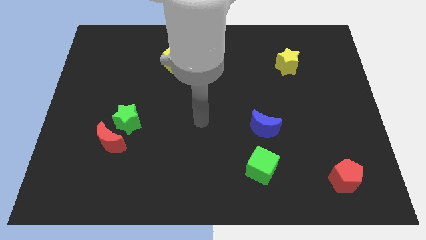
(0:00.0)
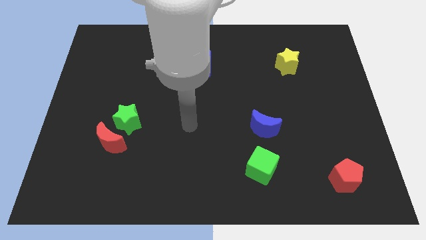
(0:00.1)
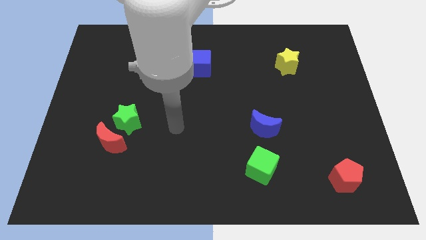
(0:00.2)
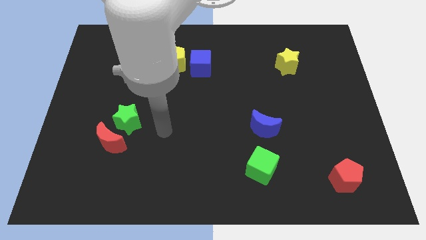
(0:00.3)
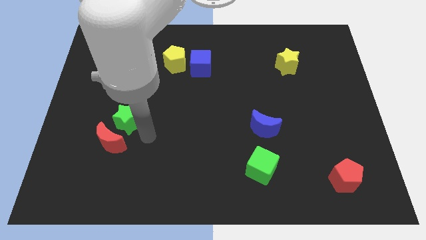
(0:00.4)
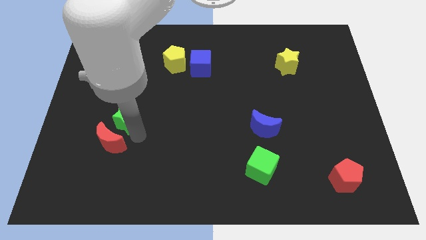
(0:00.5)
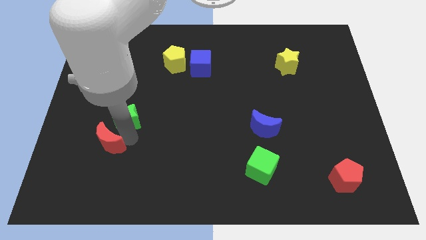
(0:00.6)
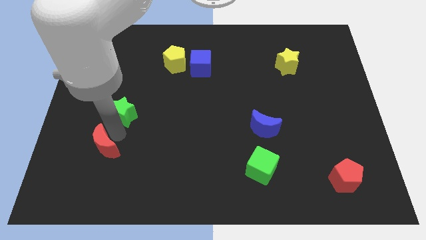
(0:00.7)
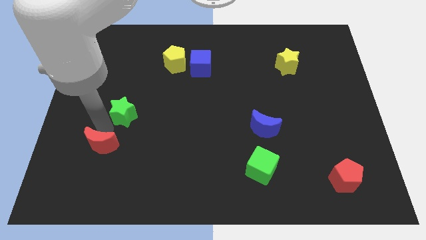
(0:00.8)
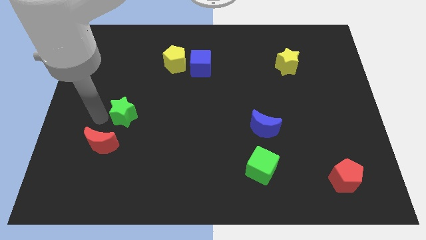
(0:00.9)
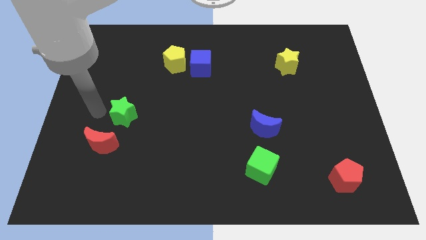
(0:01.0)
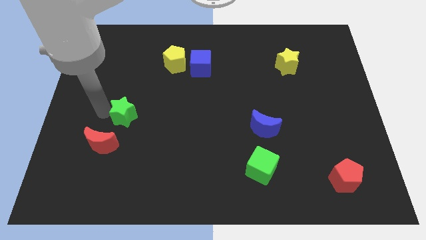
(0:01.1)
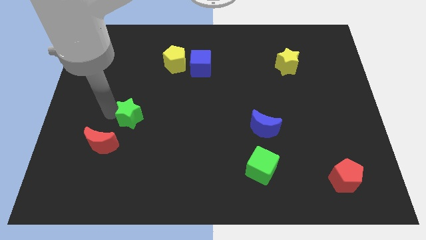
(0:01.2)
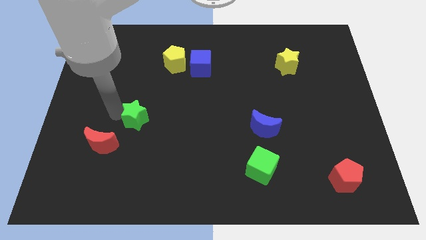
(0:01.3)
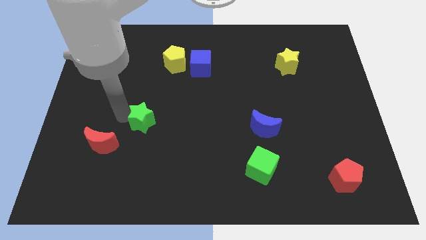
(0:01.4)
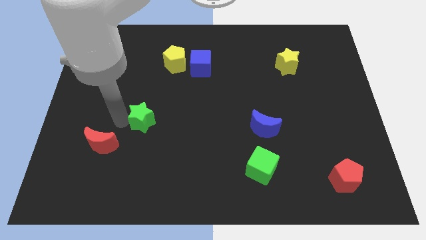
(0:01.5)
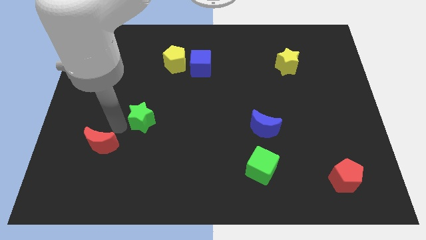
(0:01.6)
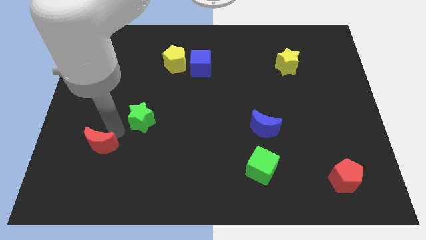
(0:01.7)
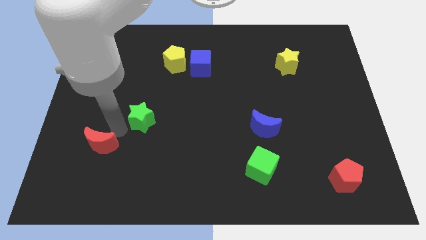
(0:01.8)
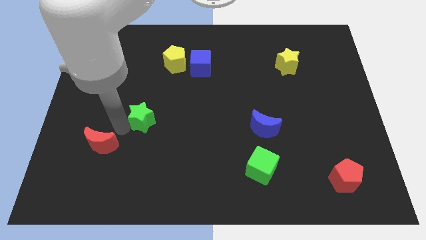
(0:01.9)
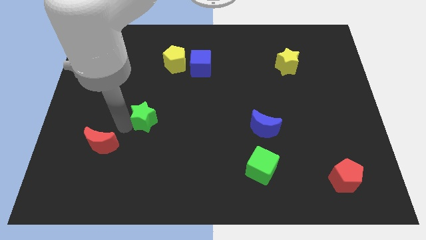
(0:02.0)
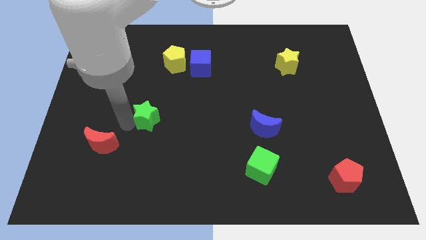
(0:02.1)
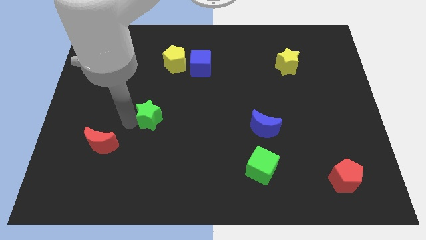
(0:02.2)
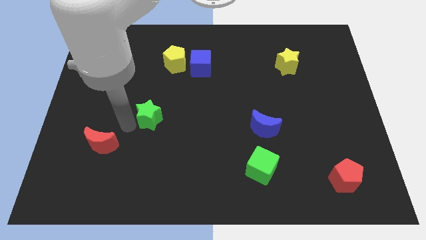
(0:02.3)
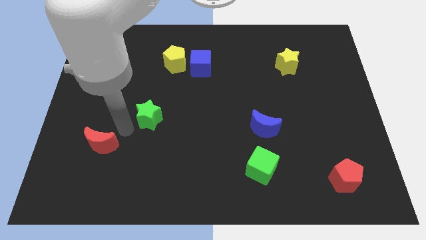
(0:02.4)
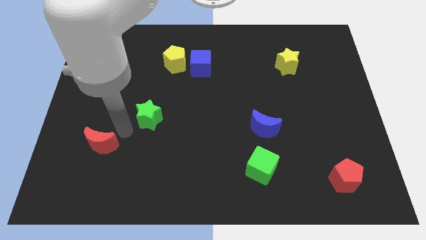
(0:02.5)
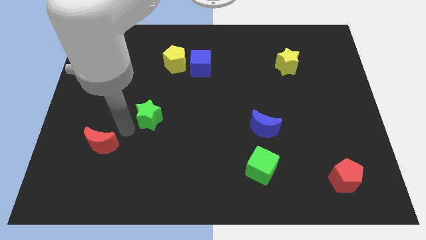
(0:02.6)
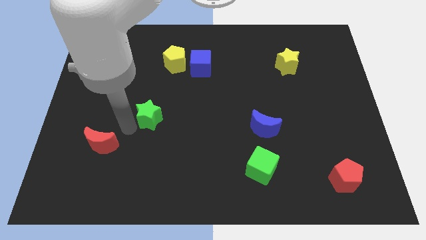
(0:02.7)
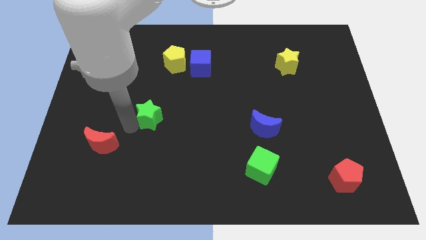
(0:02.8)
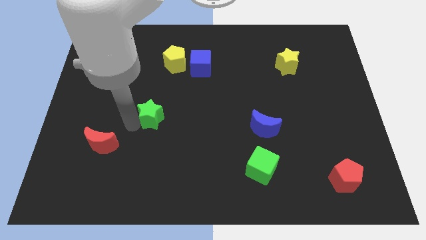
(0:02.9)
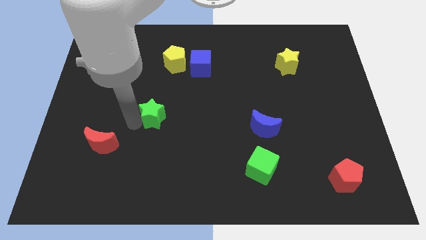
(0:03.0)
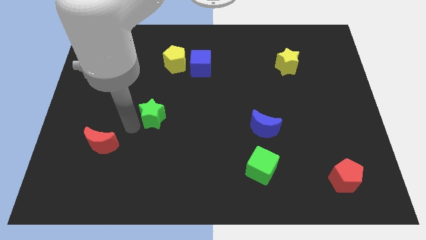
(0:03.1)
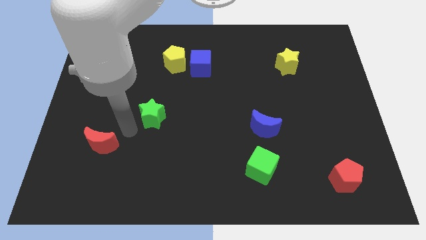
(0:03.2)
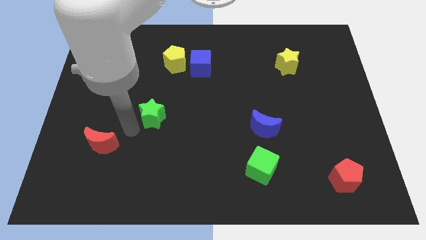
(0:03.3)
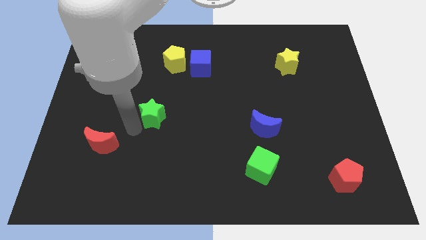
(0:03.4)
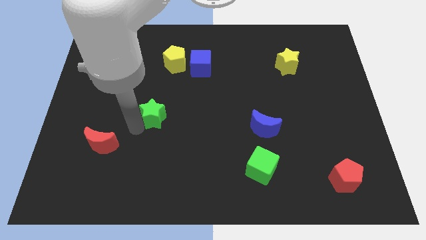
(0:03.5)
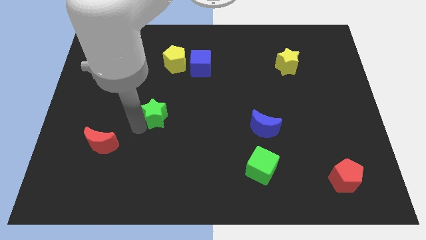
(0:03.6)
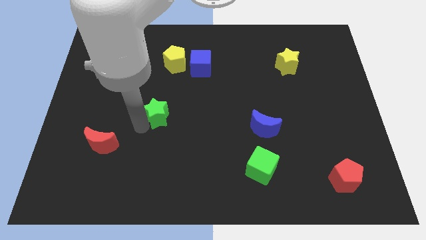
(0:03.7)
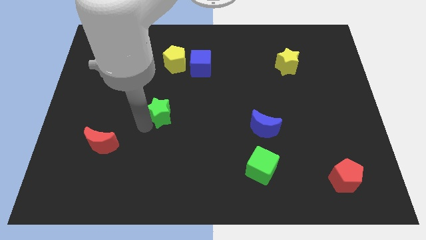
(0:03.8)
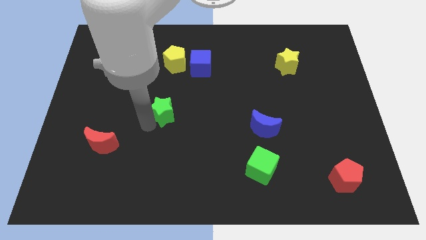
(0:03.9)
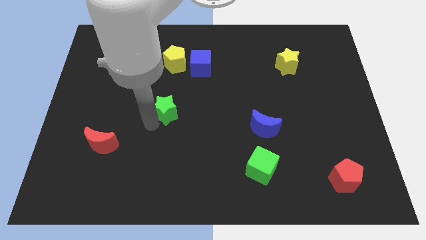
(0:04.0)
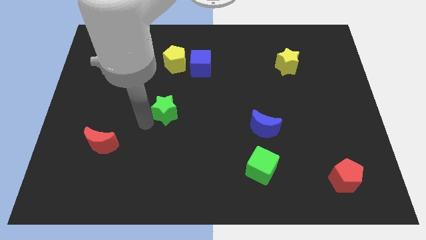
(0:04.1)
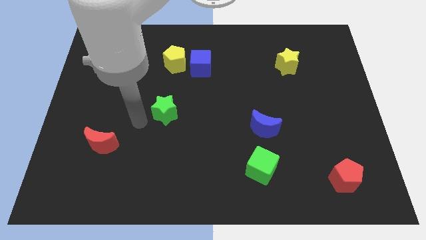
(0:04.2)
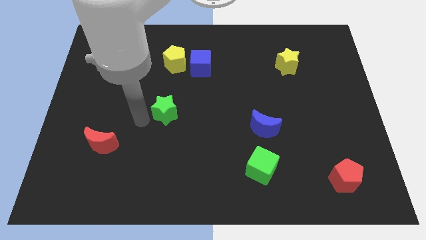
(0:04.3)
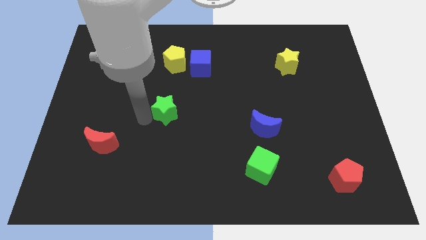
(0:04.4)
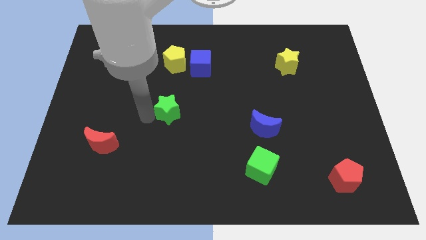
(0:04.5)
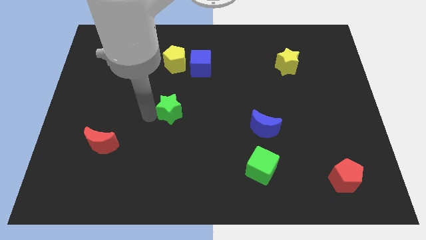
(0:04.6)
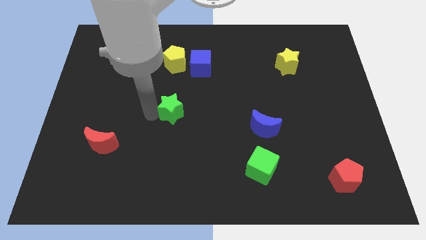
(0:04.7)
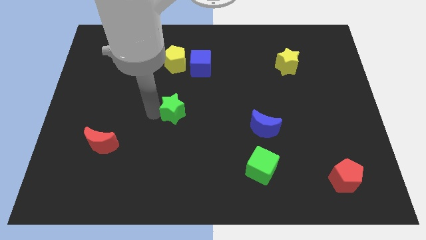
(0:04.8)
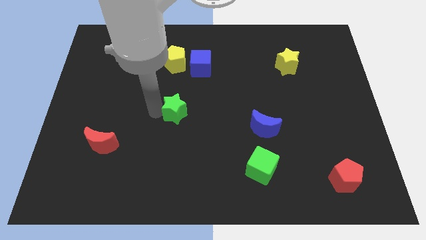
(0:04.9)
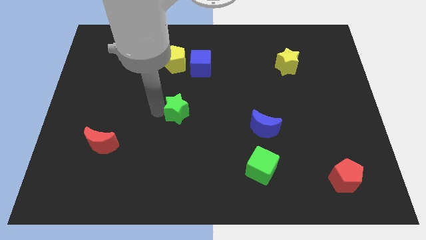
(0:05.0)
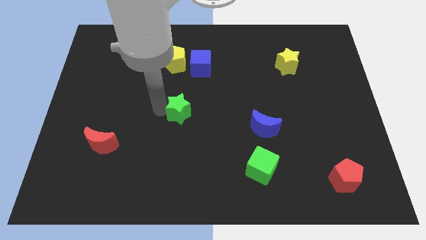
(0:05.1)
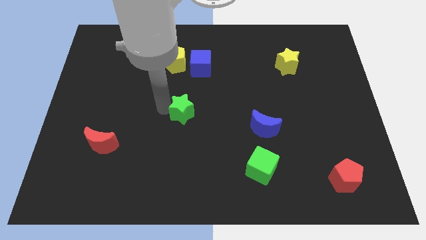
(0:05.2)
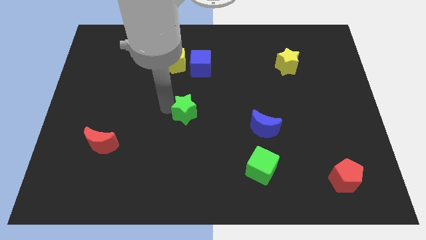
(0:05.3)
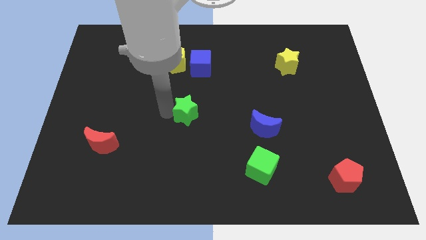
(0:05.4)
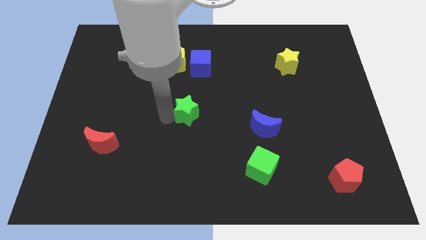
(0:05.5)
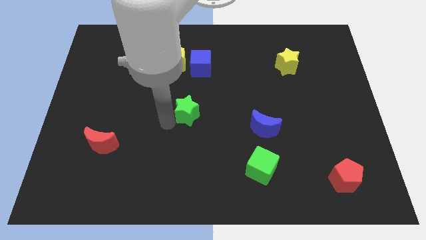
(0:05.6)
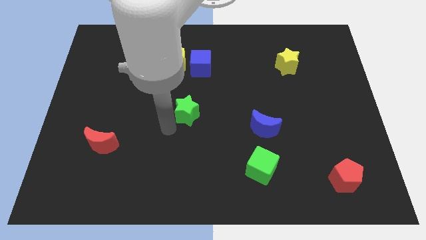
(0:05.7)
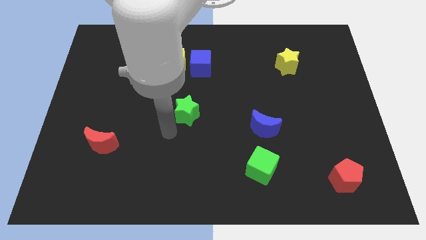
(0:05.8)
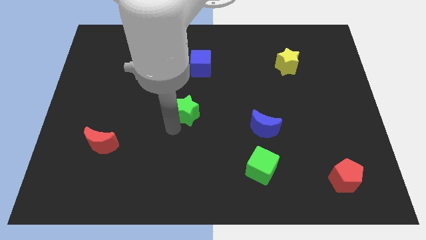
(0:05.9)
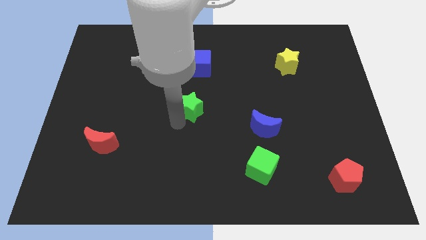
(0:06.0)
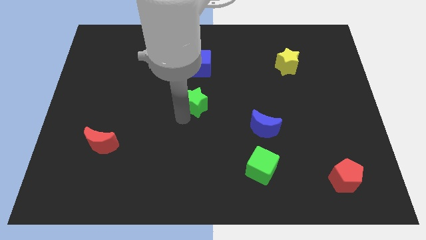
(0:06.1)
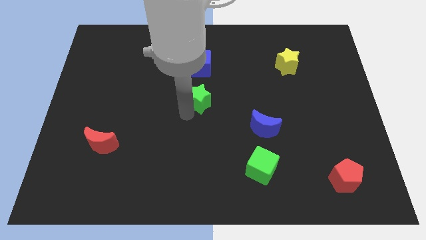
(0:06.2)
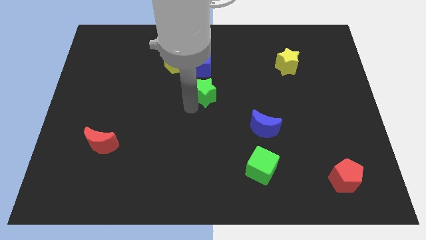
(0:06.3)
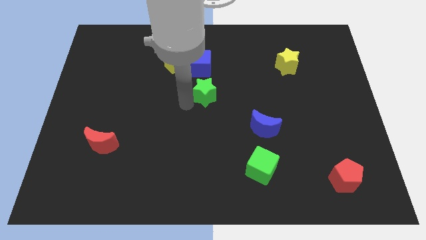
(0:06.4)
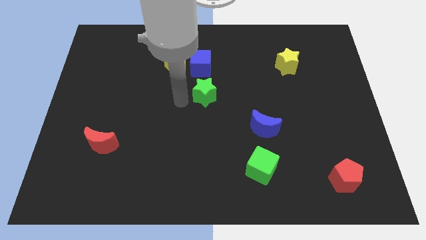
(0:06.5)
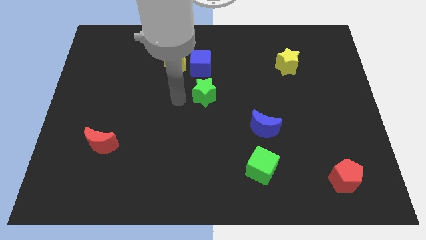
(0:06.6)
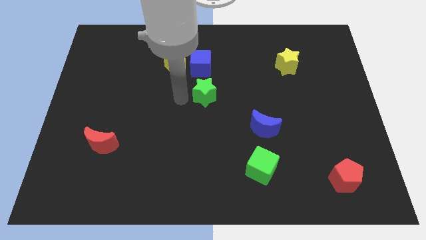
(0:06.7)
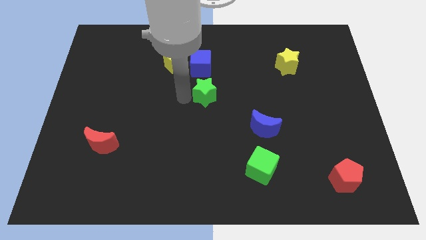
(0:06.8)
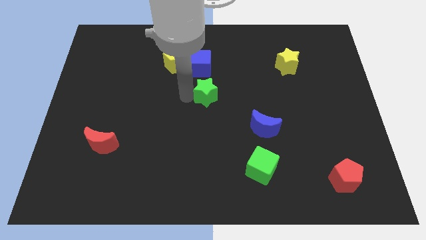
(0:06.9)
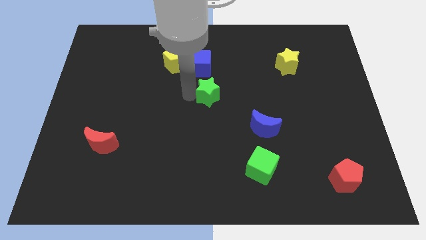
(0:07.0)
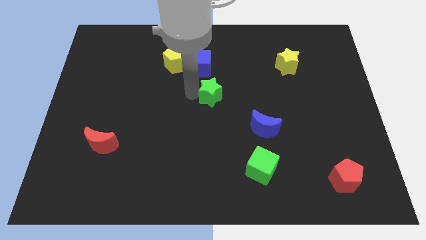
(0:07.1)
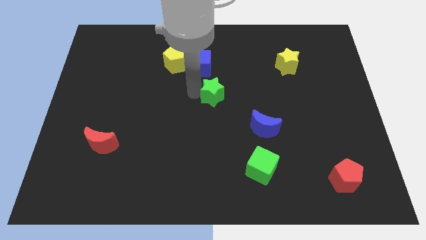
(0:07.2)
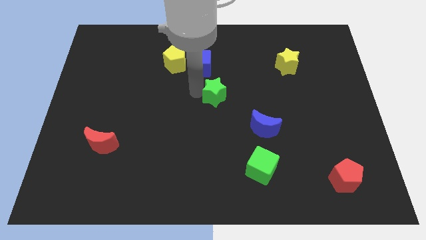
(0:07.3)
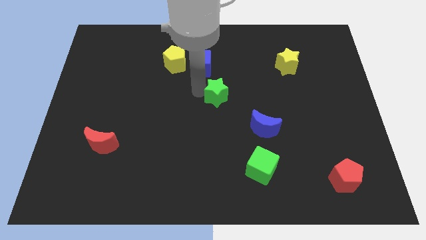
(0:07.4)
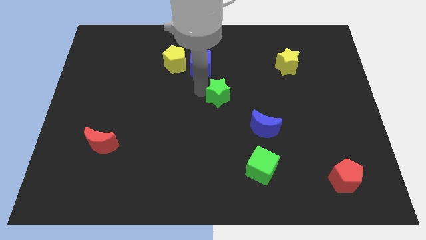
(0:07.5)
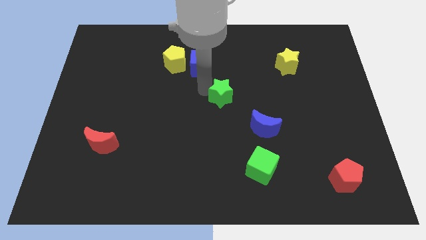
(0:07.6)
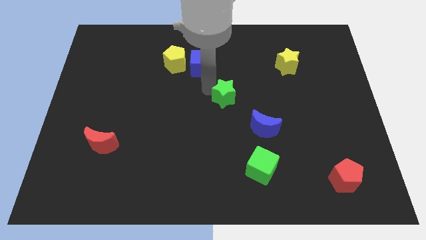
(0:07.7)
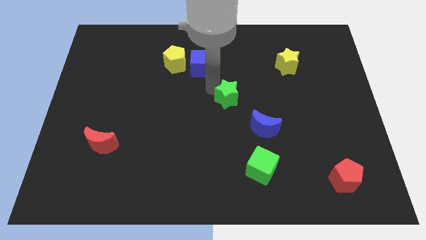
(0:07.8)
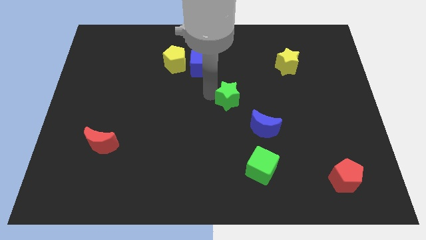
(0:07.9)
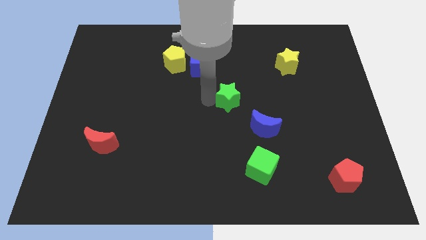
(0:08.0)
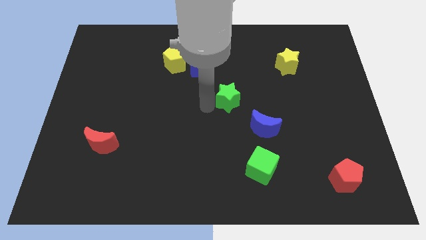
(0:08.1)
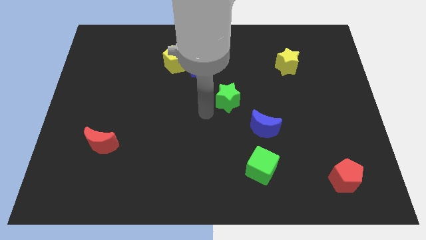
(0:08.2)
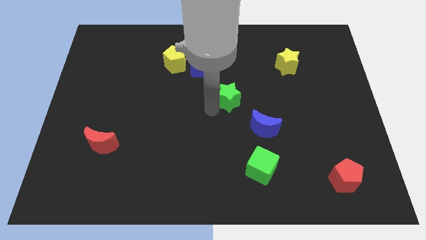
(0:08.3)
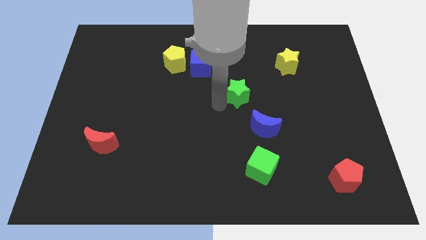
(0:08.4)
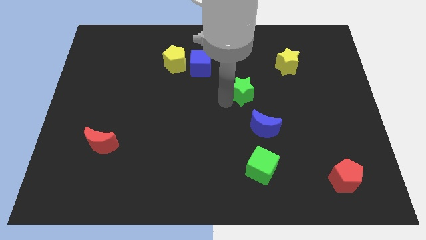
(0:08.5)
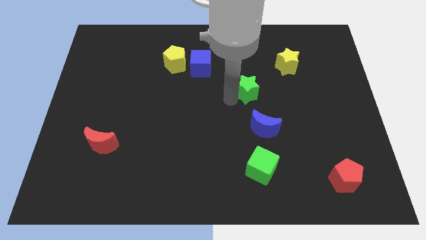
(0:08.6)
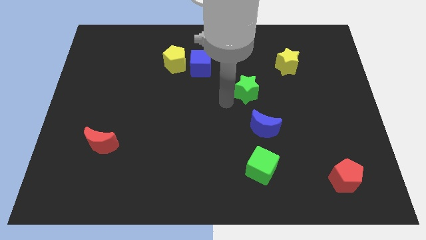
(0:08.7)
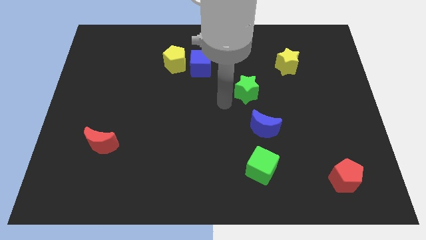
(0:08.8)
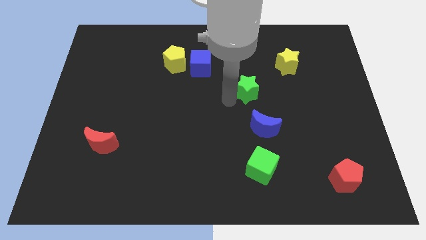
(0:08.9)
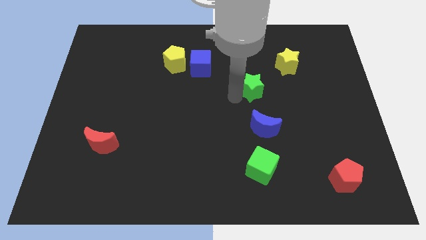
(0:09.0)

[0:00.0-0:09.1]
put the green star diagonally down and to the left of the yellow star
